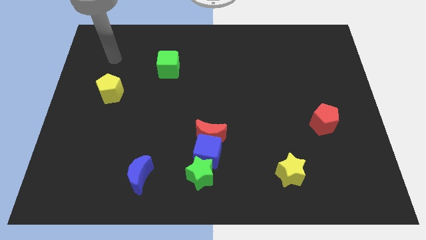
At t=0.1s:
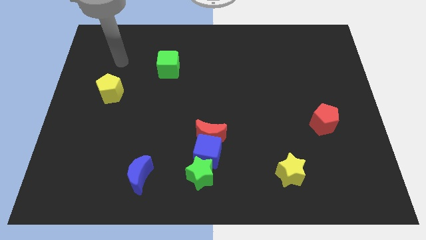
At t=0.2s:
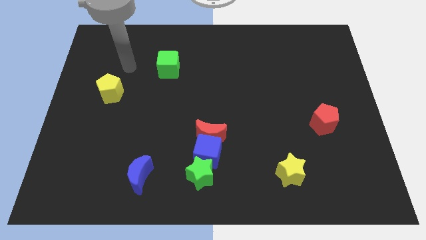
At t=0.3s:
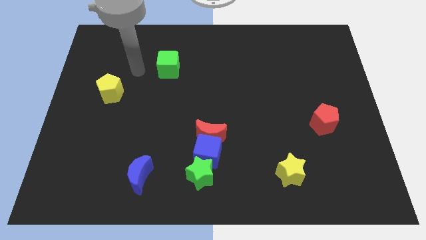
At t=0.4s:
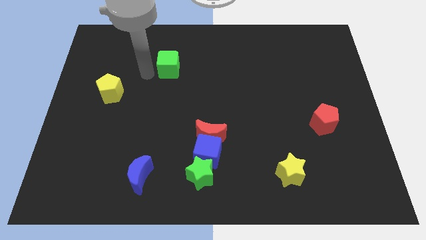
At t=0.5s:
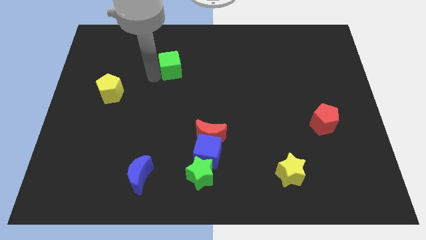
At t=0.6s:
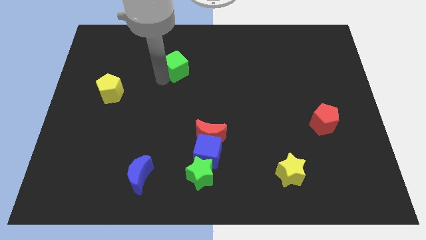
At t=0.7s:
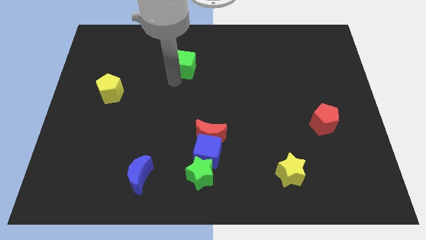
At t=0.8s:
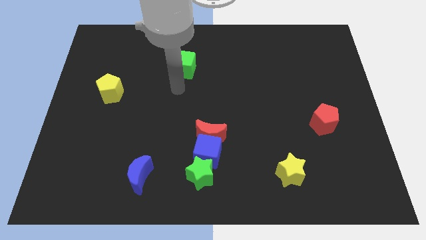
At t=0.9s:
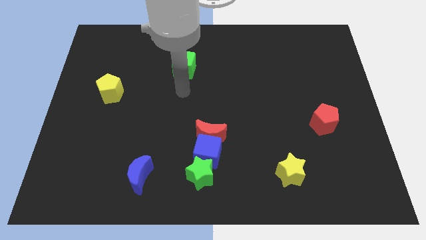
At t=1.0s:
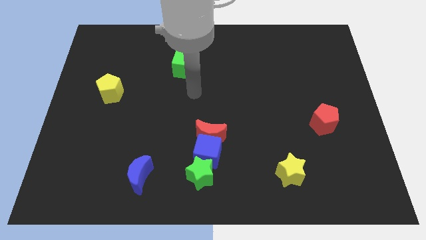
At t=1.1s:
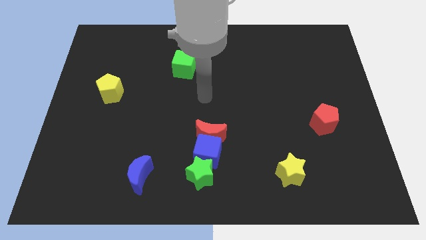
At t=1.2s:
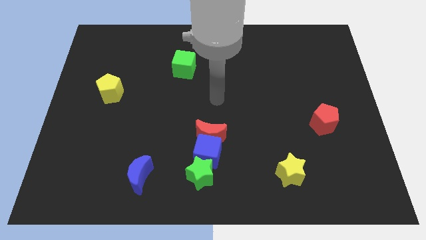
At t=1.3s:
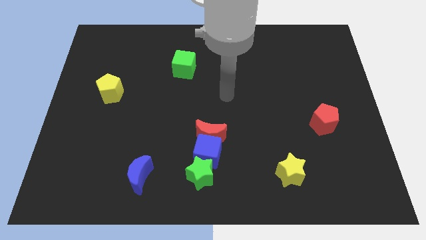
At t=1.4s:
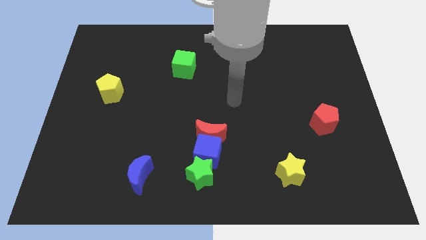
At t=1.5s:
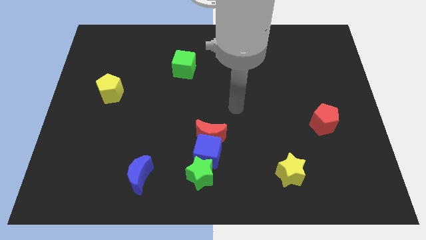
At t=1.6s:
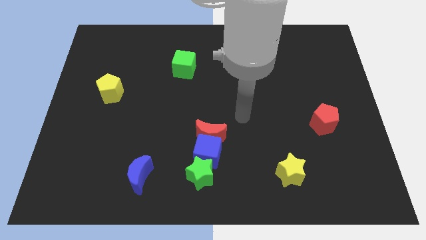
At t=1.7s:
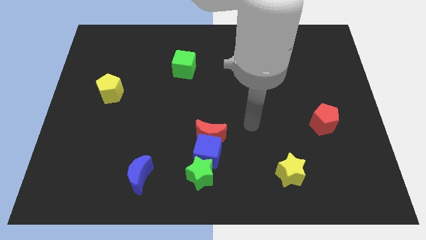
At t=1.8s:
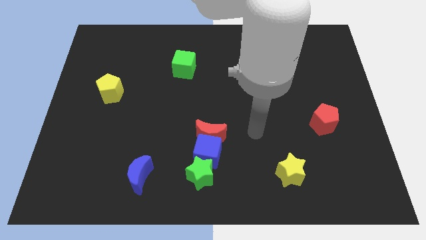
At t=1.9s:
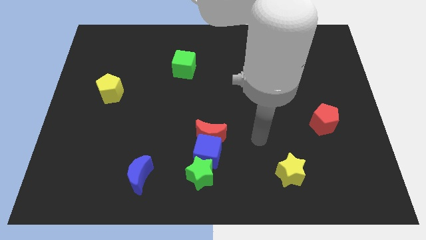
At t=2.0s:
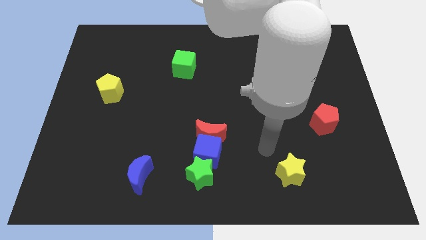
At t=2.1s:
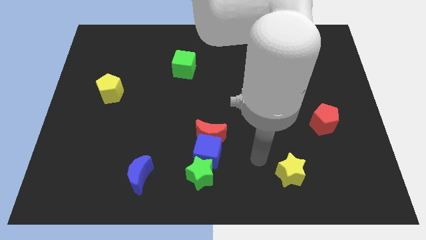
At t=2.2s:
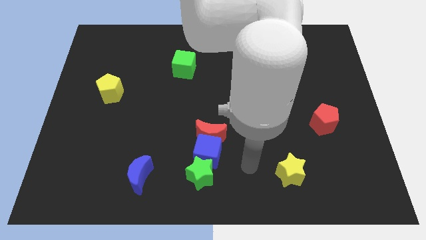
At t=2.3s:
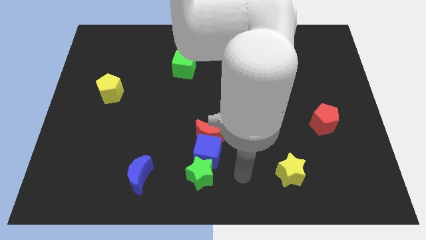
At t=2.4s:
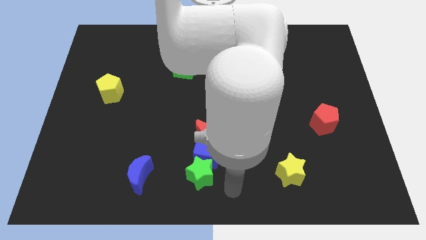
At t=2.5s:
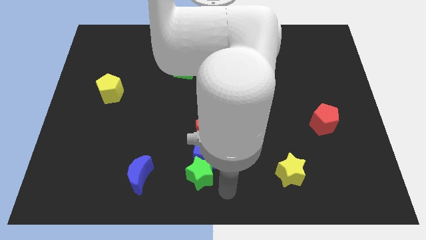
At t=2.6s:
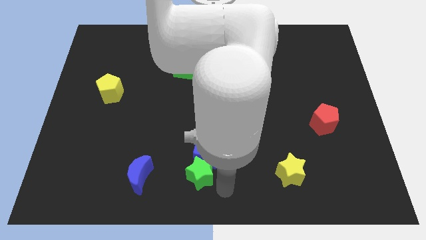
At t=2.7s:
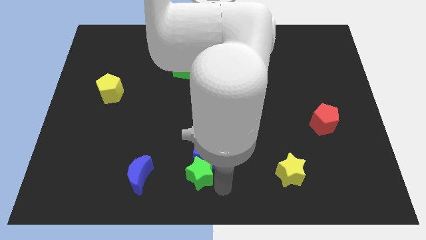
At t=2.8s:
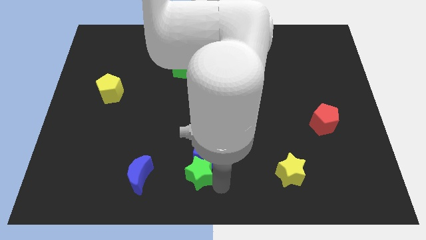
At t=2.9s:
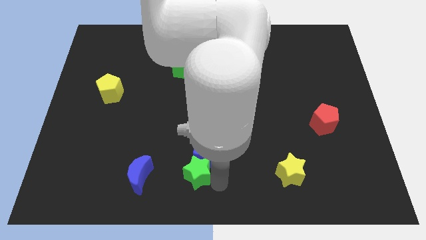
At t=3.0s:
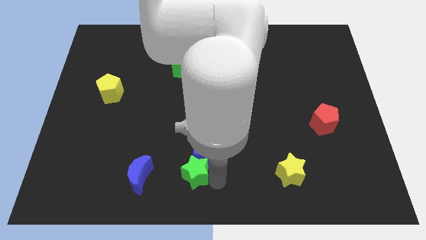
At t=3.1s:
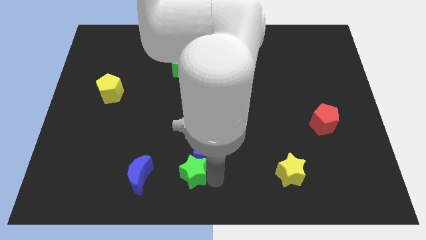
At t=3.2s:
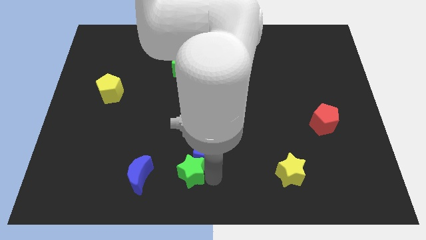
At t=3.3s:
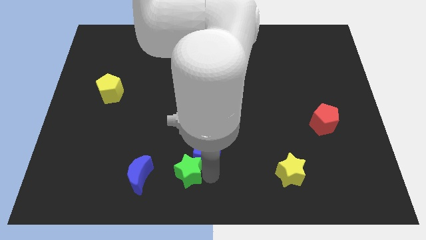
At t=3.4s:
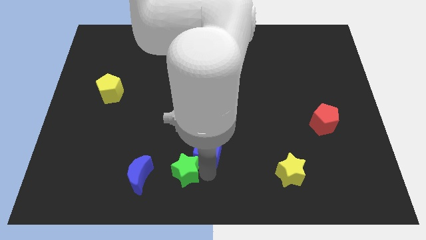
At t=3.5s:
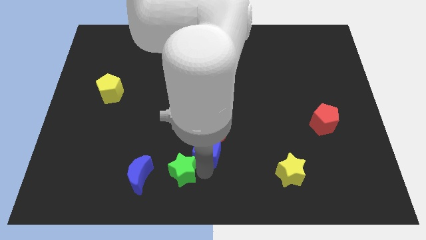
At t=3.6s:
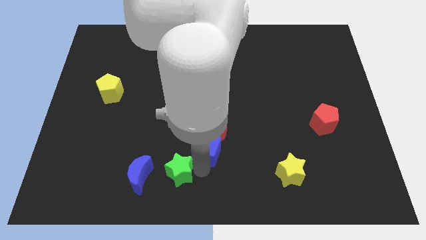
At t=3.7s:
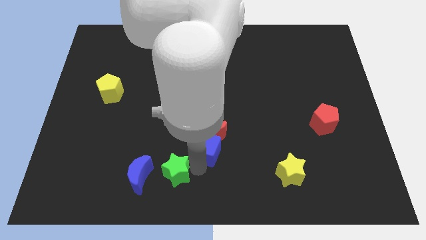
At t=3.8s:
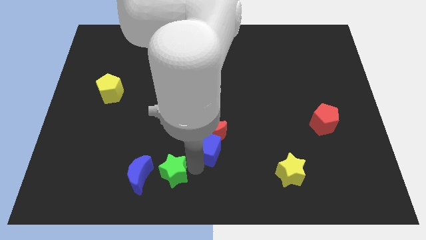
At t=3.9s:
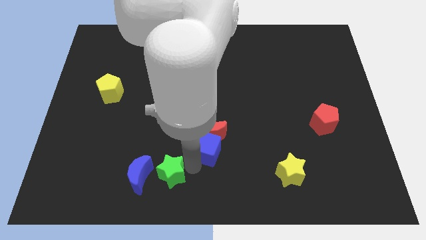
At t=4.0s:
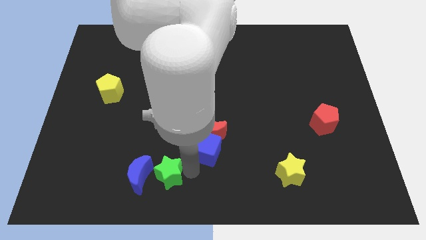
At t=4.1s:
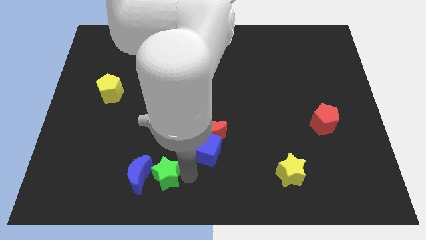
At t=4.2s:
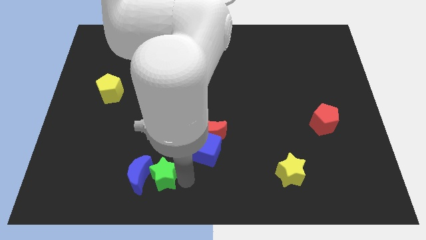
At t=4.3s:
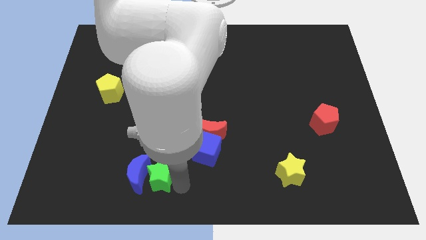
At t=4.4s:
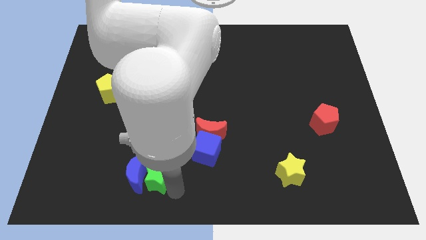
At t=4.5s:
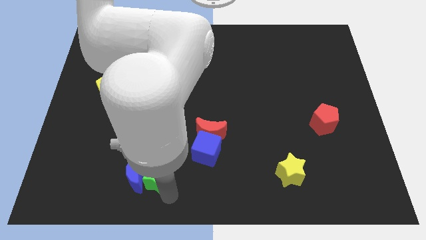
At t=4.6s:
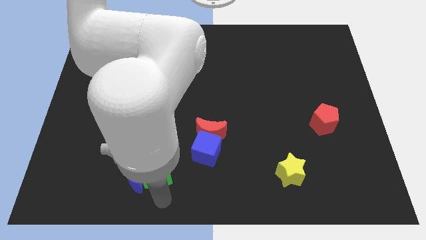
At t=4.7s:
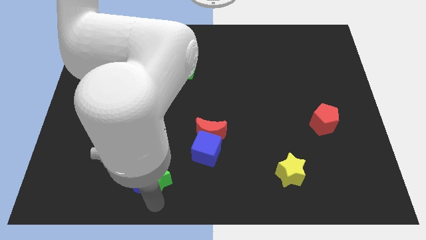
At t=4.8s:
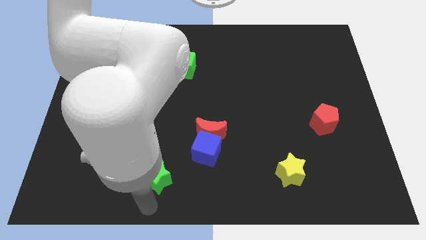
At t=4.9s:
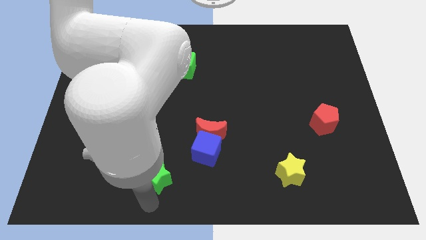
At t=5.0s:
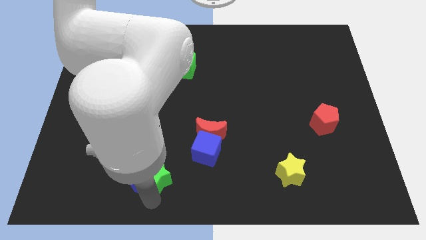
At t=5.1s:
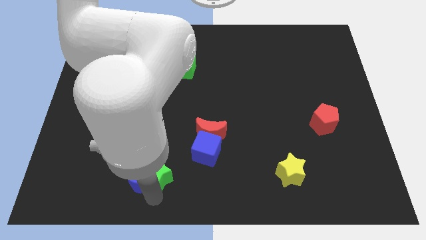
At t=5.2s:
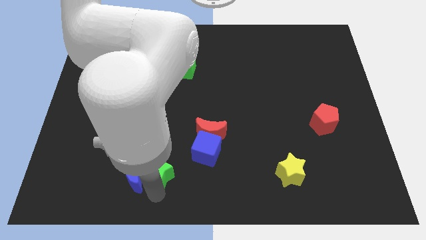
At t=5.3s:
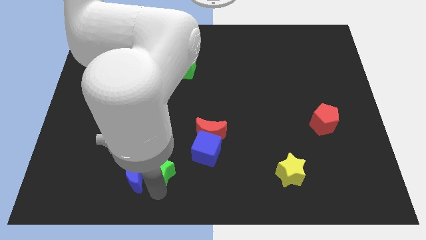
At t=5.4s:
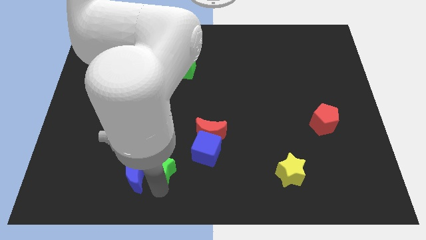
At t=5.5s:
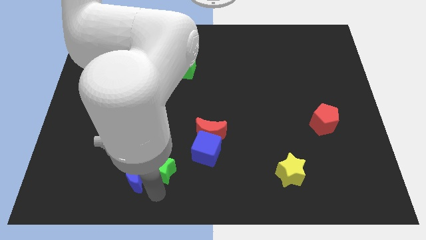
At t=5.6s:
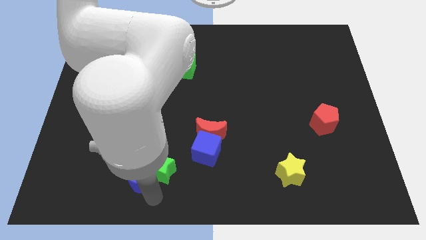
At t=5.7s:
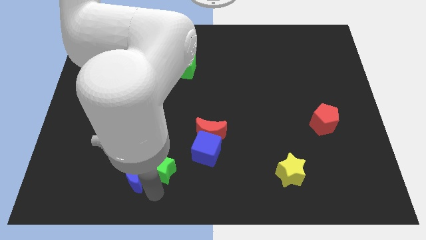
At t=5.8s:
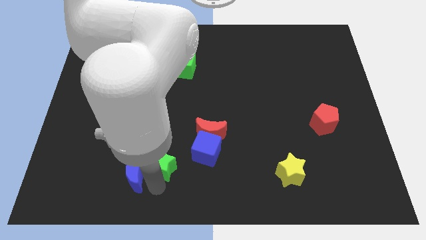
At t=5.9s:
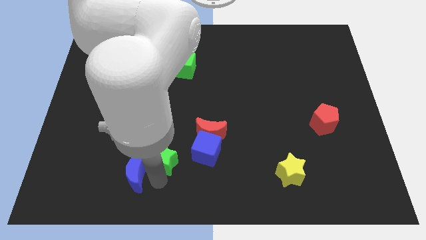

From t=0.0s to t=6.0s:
push the green star up and to the left slightly

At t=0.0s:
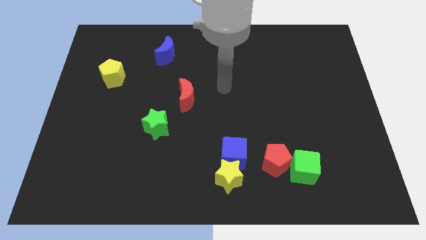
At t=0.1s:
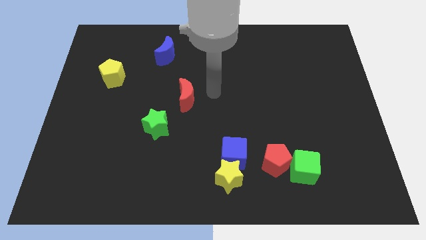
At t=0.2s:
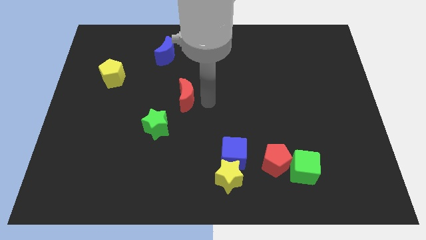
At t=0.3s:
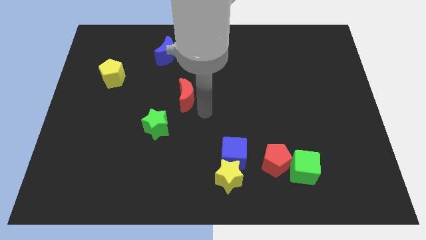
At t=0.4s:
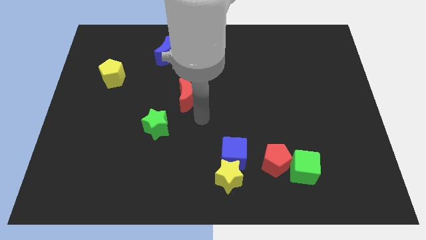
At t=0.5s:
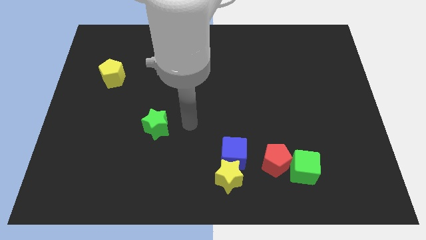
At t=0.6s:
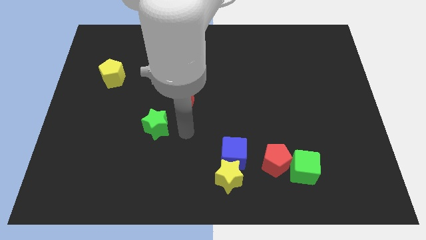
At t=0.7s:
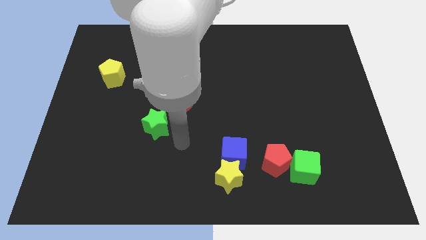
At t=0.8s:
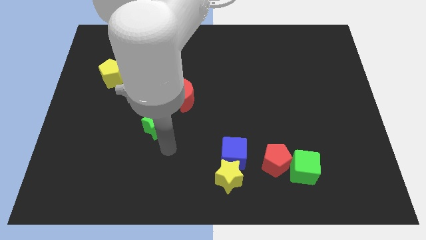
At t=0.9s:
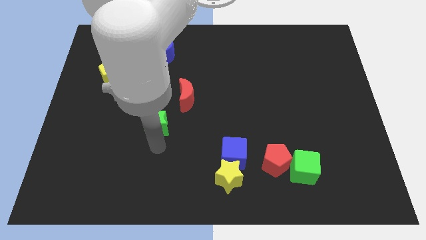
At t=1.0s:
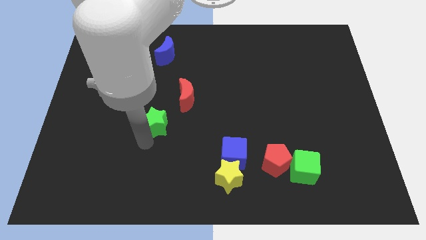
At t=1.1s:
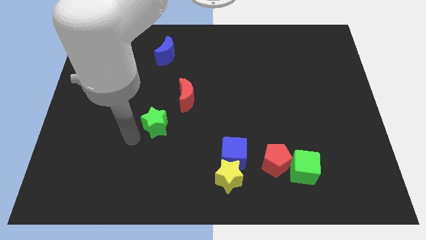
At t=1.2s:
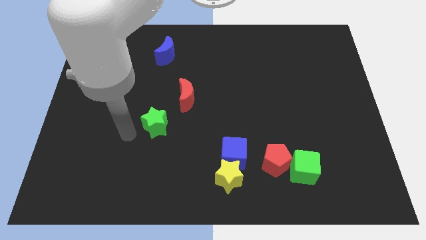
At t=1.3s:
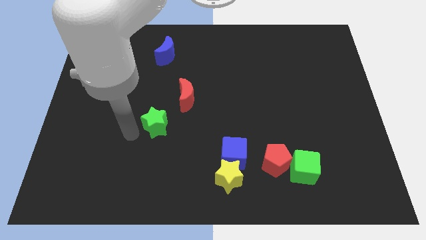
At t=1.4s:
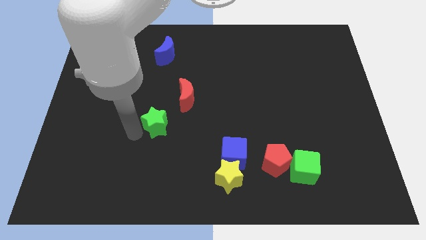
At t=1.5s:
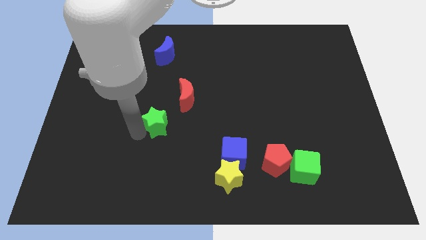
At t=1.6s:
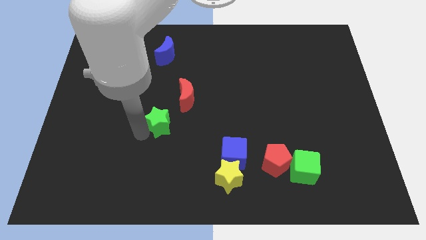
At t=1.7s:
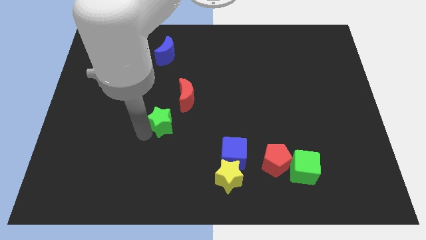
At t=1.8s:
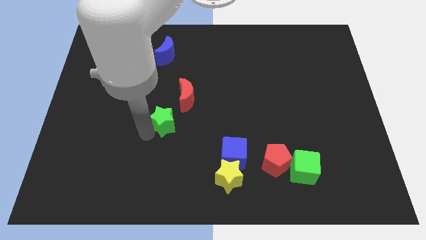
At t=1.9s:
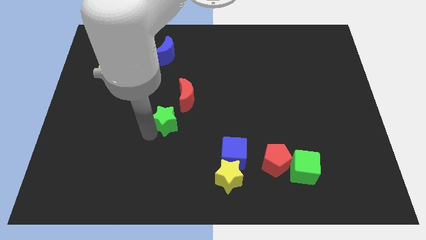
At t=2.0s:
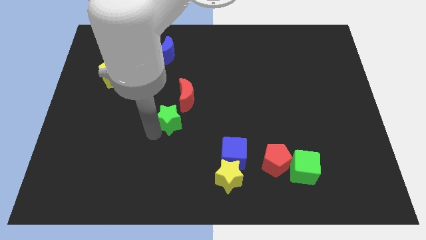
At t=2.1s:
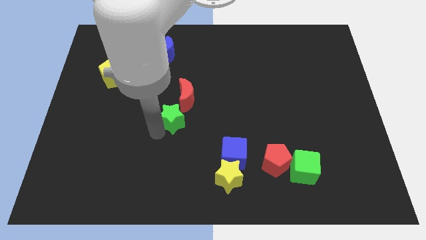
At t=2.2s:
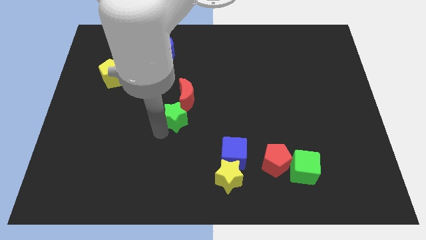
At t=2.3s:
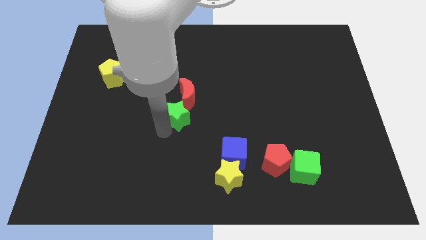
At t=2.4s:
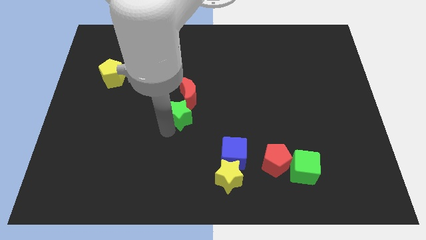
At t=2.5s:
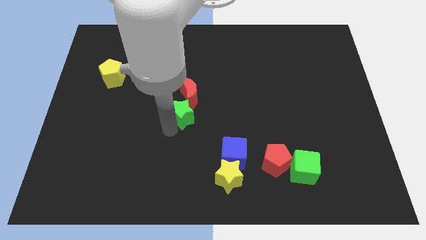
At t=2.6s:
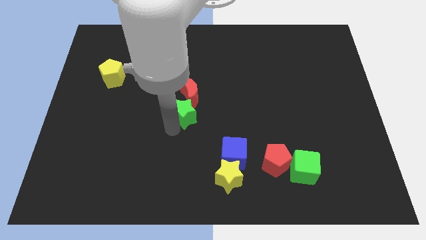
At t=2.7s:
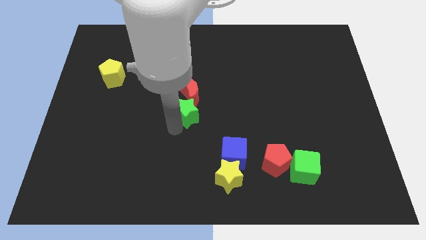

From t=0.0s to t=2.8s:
slightly push the green star diagonally up and to the right
